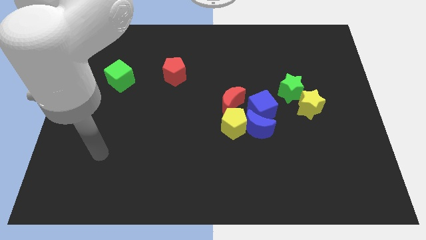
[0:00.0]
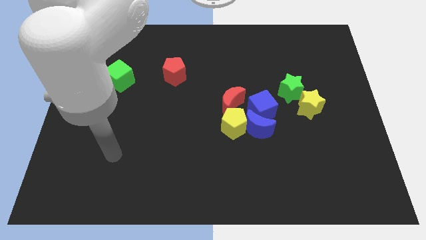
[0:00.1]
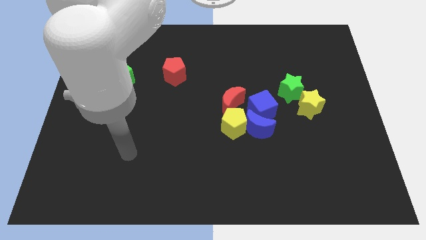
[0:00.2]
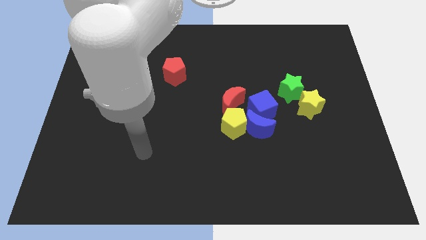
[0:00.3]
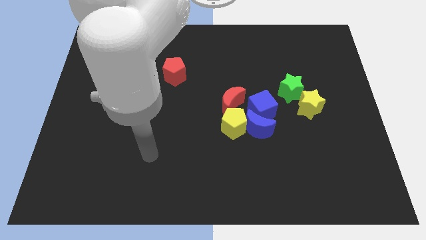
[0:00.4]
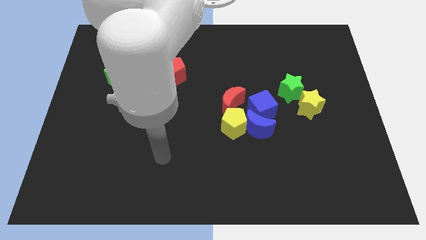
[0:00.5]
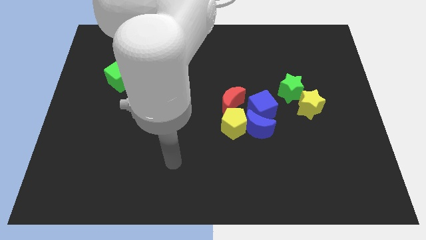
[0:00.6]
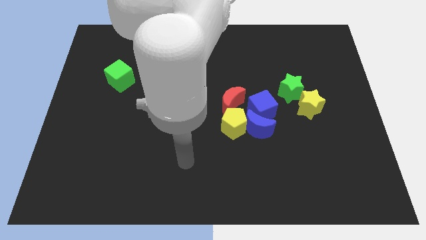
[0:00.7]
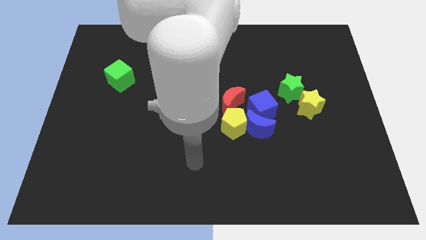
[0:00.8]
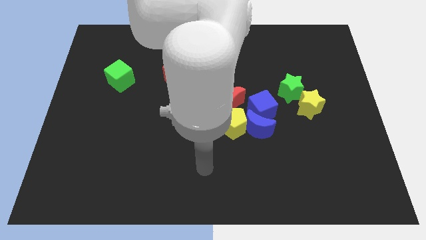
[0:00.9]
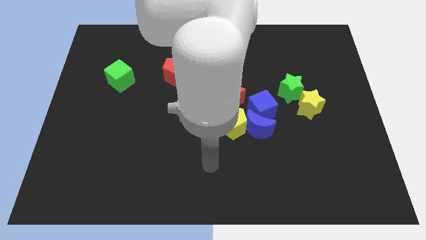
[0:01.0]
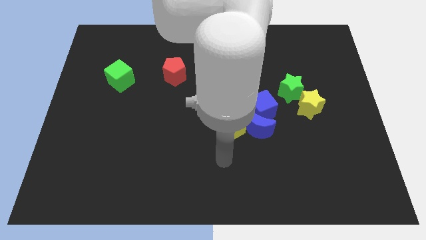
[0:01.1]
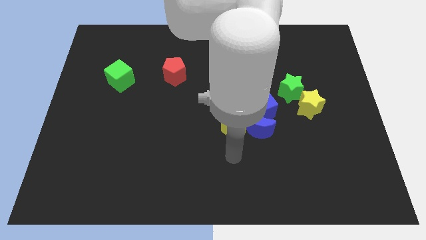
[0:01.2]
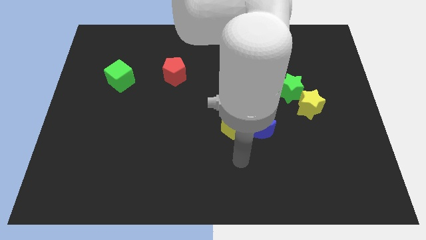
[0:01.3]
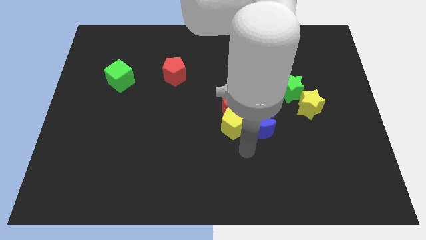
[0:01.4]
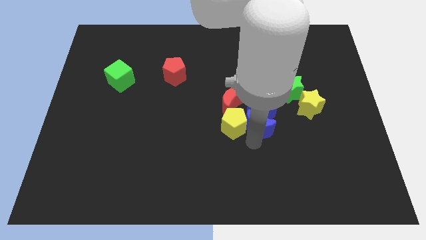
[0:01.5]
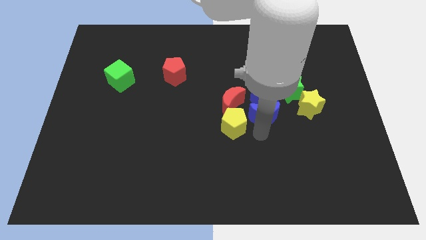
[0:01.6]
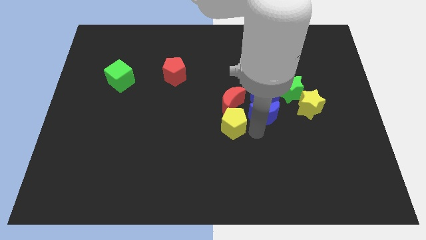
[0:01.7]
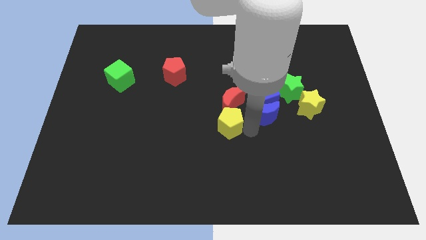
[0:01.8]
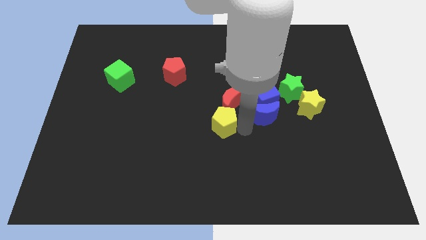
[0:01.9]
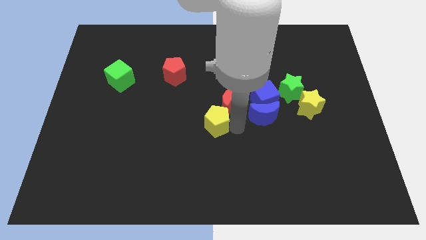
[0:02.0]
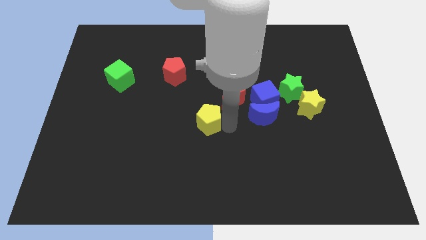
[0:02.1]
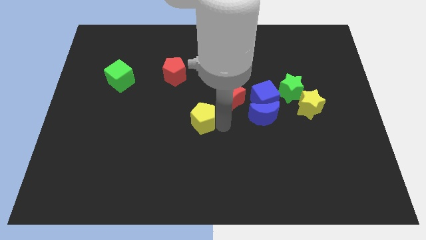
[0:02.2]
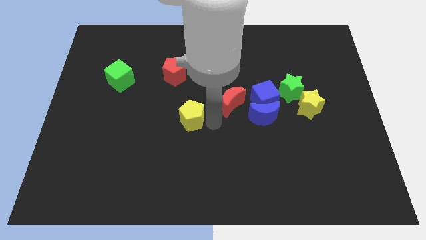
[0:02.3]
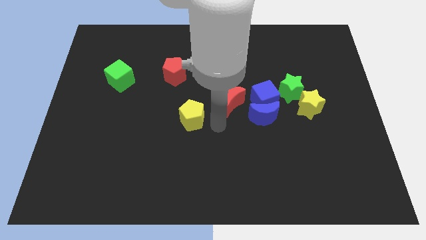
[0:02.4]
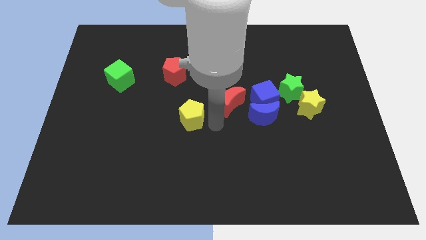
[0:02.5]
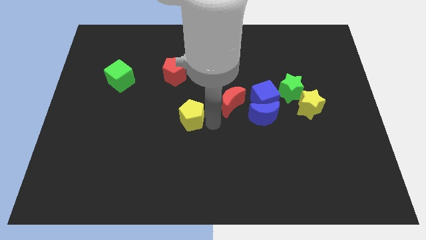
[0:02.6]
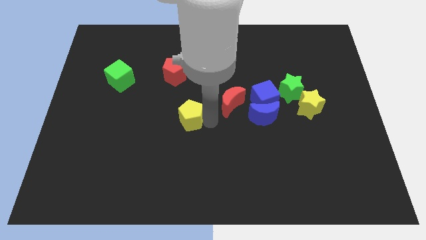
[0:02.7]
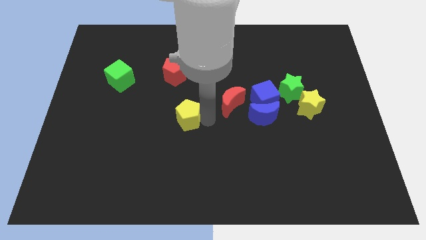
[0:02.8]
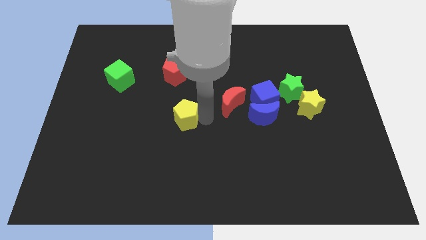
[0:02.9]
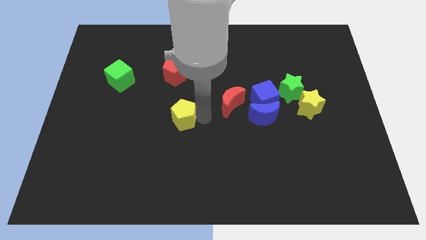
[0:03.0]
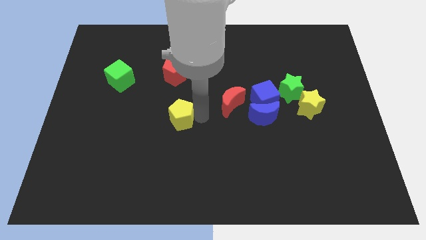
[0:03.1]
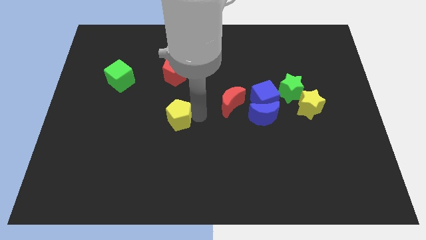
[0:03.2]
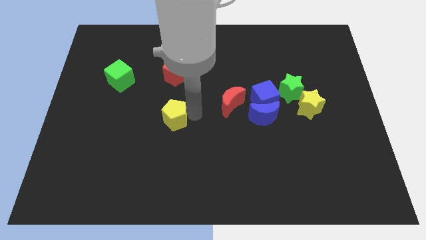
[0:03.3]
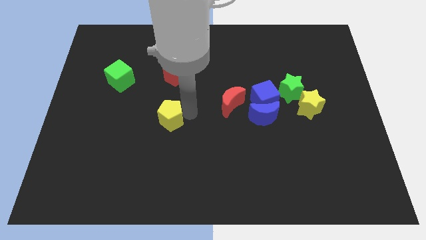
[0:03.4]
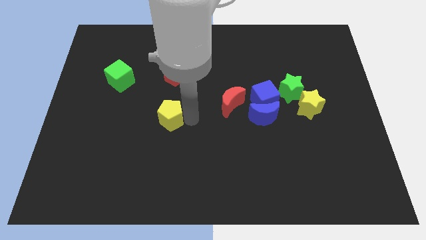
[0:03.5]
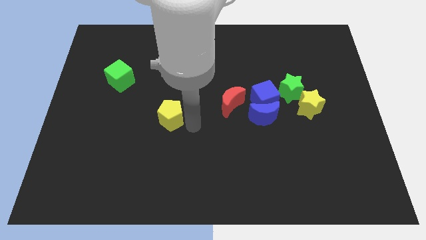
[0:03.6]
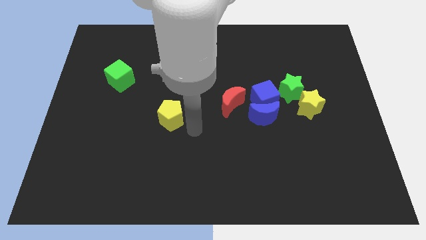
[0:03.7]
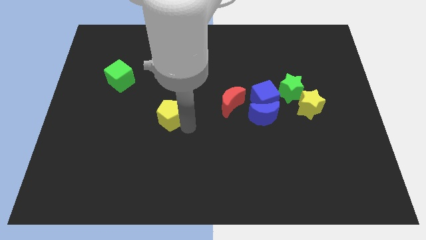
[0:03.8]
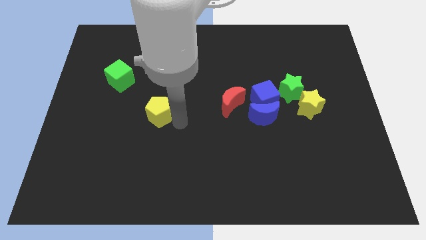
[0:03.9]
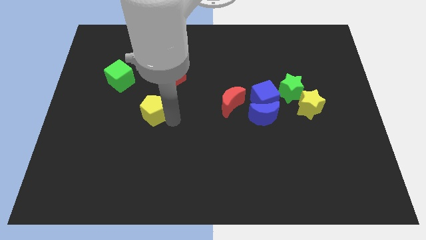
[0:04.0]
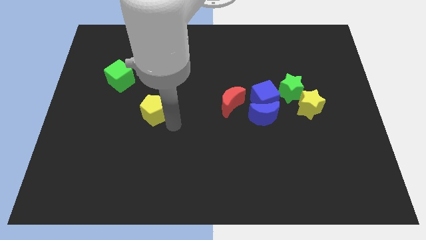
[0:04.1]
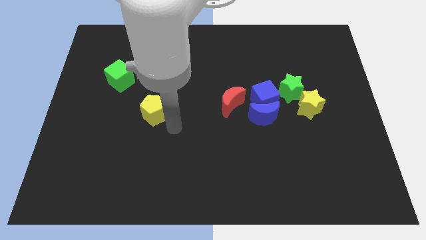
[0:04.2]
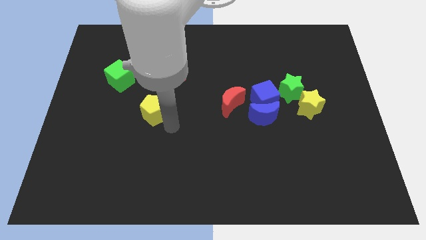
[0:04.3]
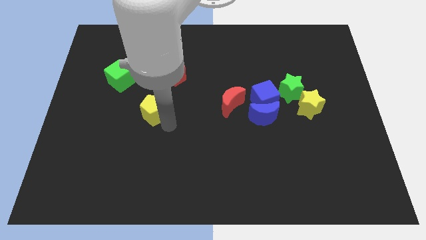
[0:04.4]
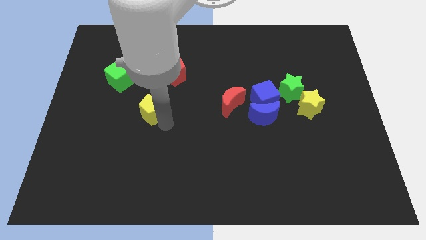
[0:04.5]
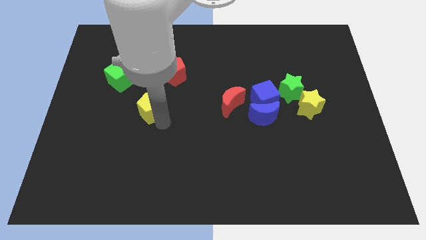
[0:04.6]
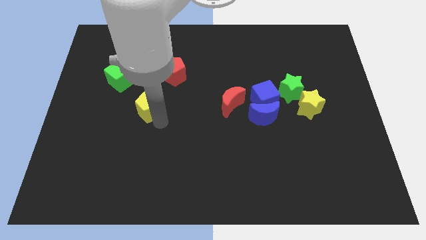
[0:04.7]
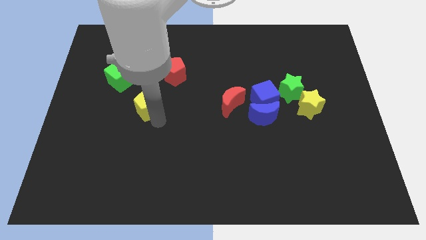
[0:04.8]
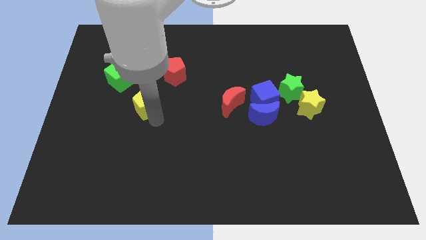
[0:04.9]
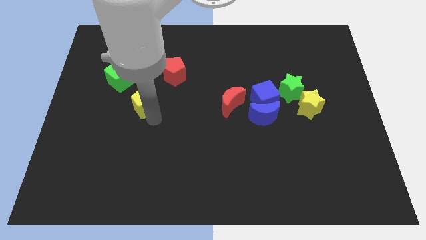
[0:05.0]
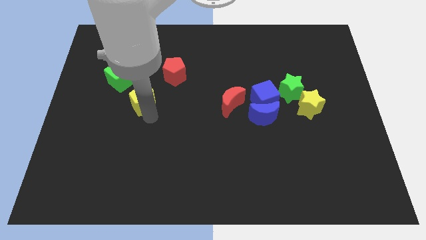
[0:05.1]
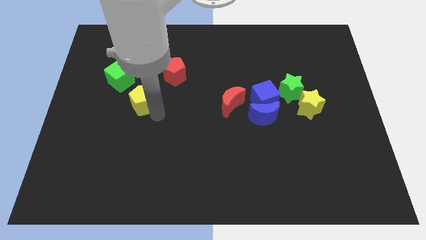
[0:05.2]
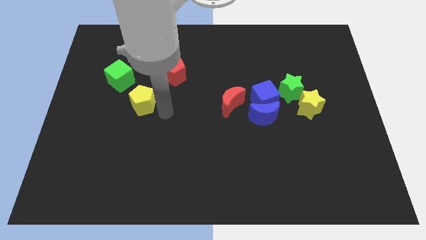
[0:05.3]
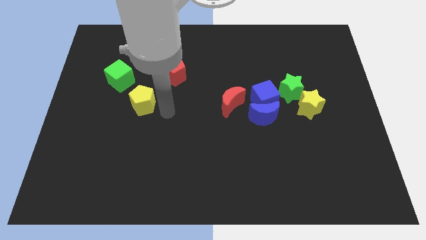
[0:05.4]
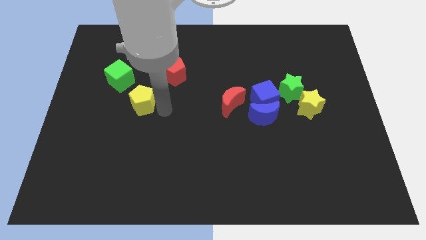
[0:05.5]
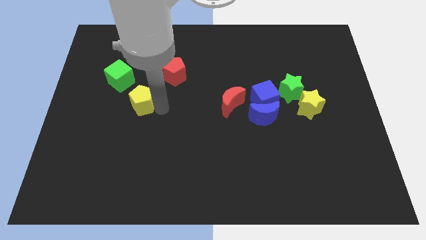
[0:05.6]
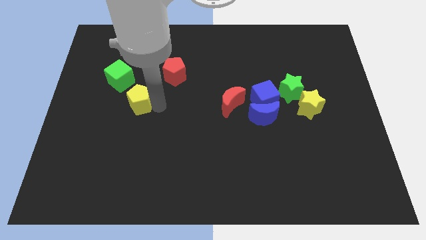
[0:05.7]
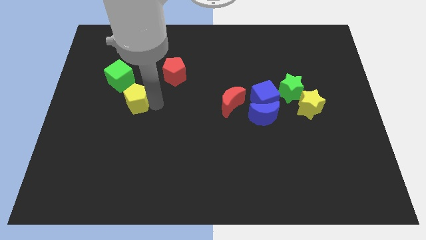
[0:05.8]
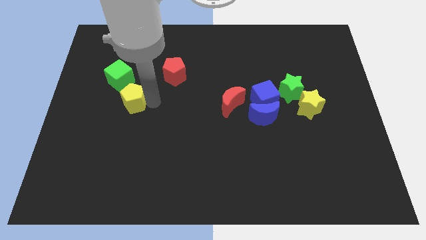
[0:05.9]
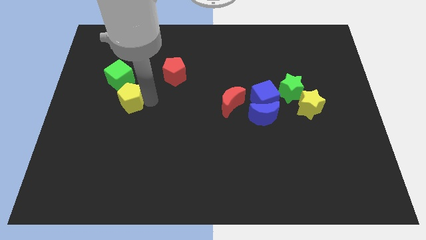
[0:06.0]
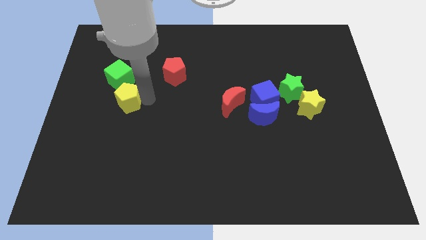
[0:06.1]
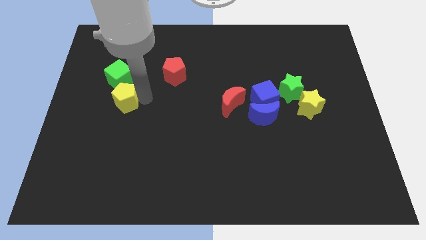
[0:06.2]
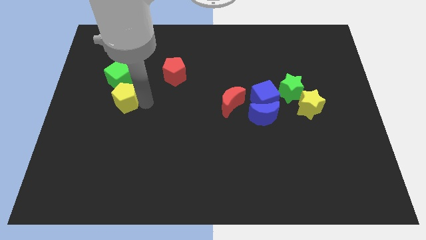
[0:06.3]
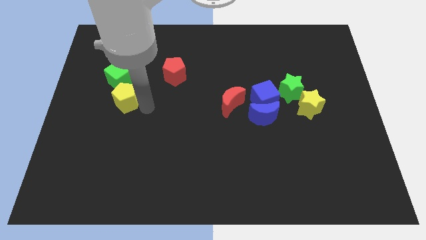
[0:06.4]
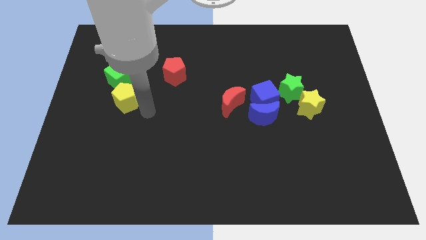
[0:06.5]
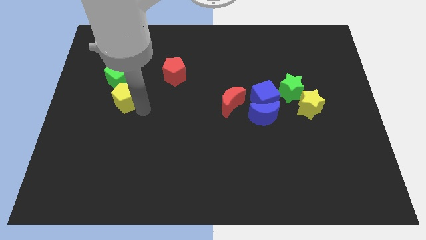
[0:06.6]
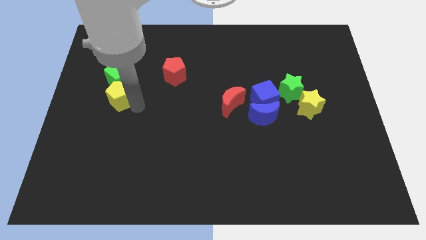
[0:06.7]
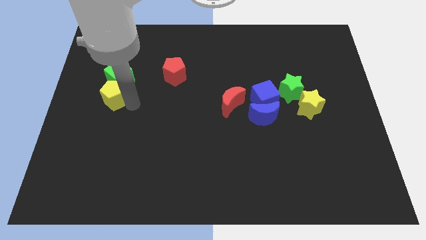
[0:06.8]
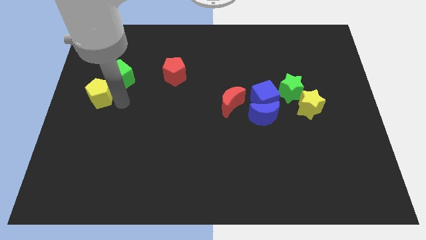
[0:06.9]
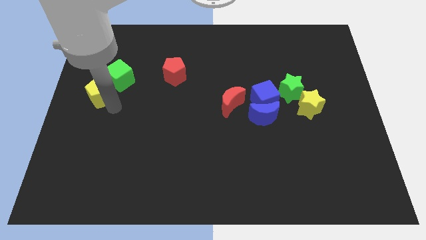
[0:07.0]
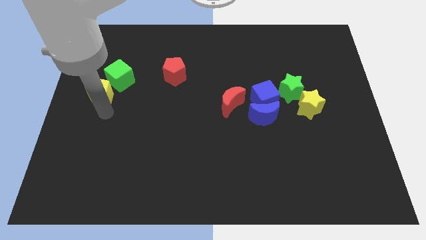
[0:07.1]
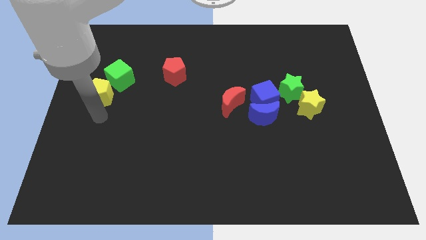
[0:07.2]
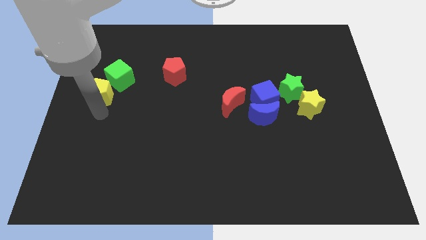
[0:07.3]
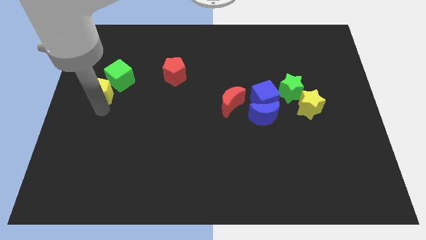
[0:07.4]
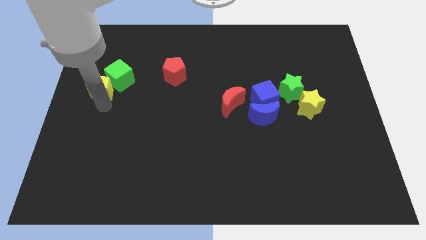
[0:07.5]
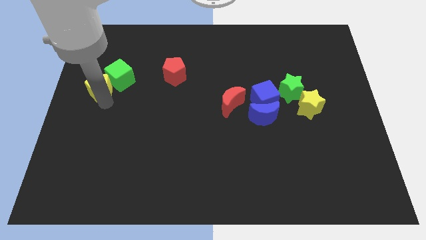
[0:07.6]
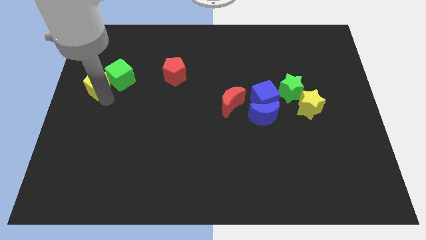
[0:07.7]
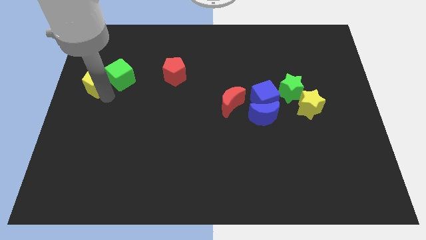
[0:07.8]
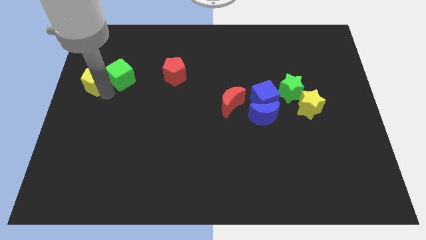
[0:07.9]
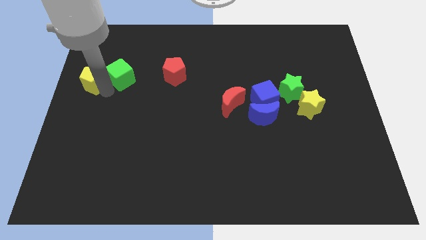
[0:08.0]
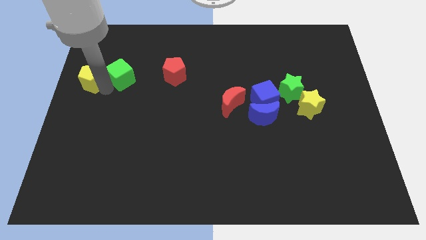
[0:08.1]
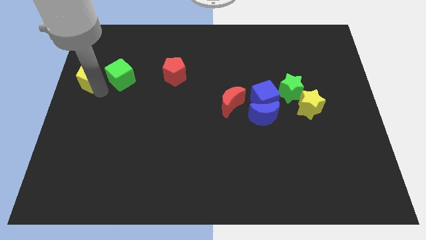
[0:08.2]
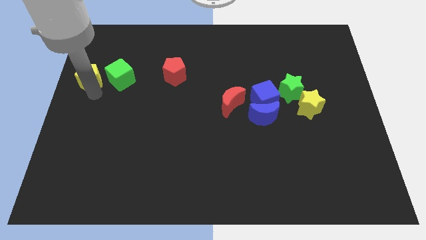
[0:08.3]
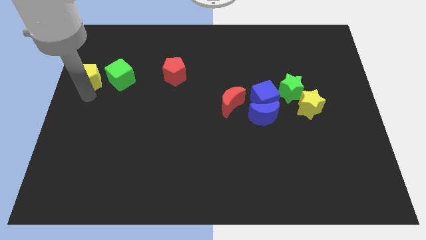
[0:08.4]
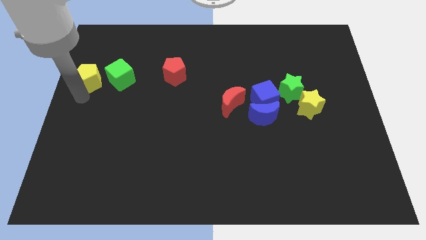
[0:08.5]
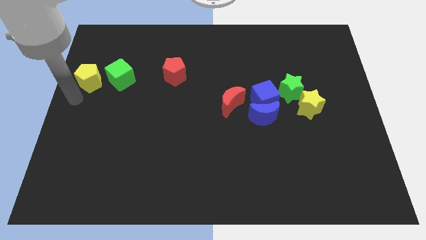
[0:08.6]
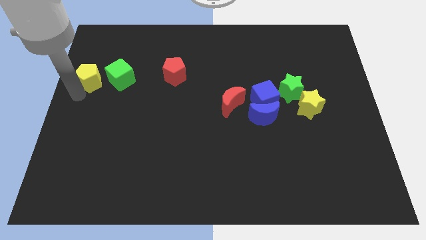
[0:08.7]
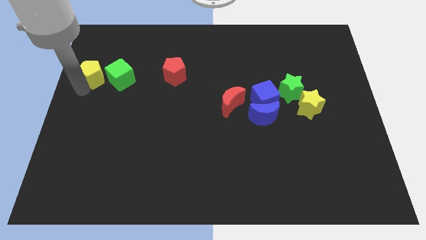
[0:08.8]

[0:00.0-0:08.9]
move the yellow pentagon diagonally up and to the left of the green cube
